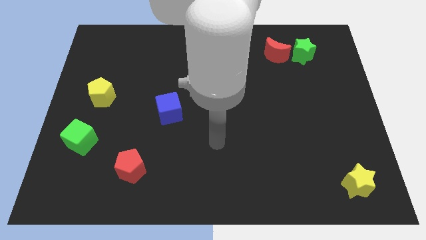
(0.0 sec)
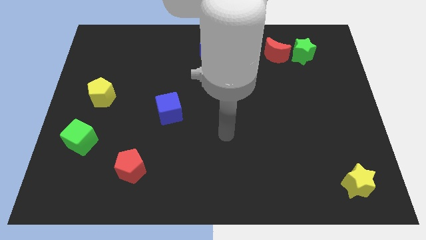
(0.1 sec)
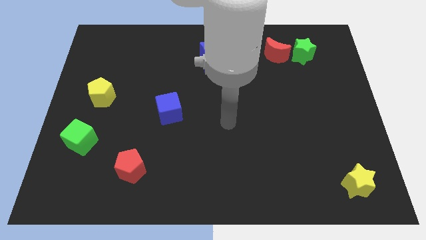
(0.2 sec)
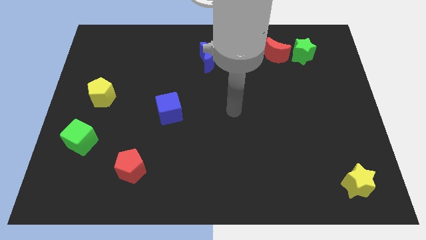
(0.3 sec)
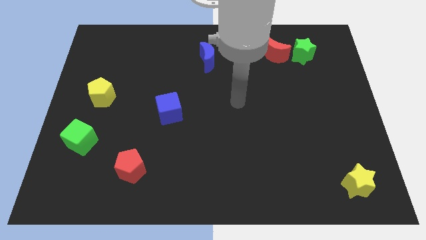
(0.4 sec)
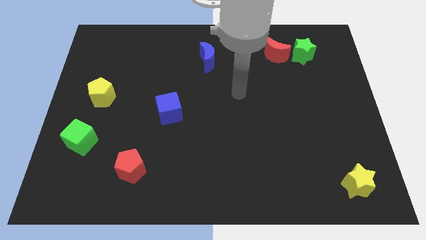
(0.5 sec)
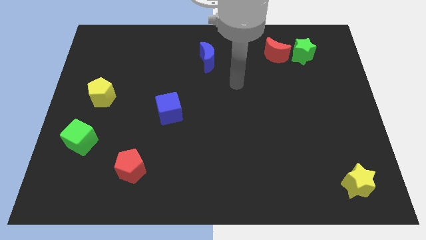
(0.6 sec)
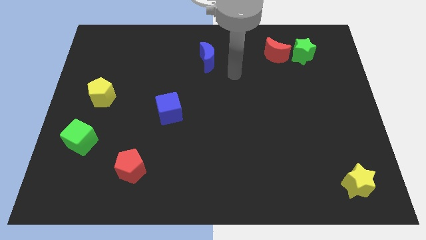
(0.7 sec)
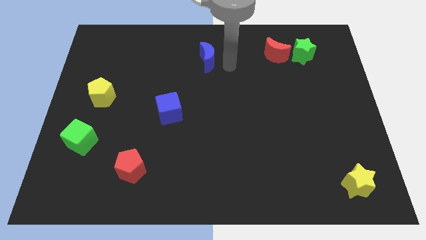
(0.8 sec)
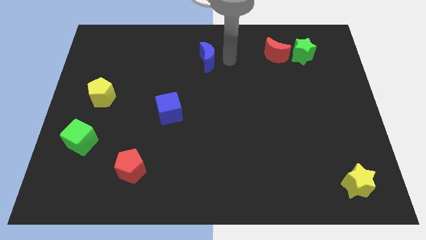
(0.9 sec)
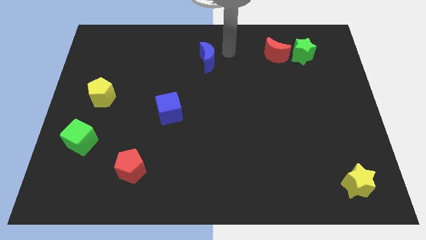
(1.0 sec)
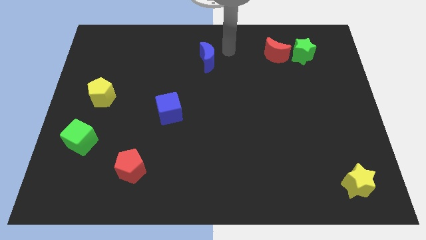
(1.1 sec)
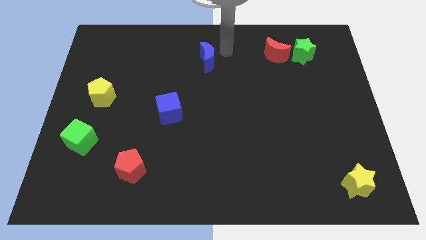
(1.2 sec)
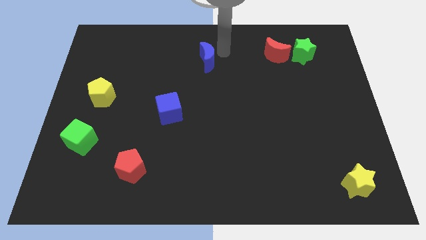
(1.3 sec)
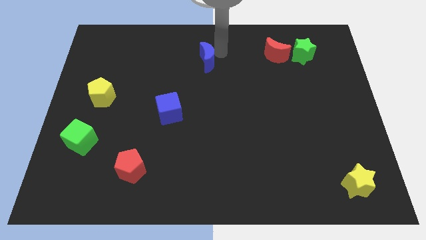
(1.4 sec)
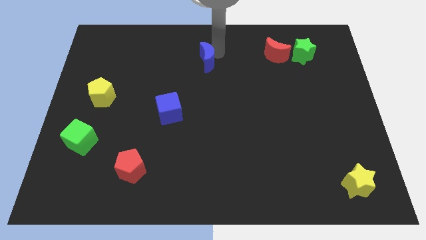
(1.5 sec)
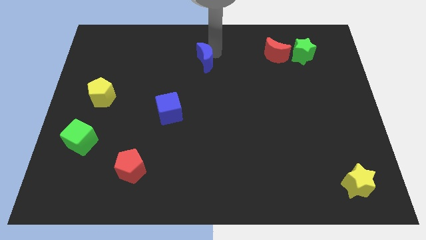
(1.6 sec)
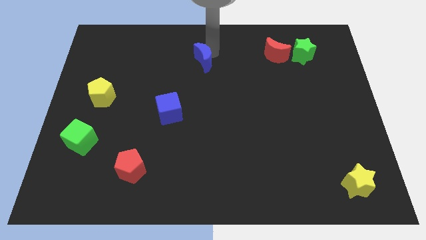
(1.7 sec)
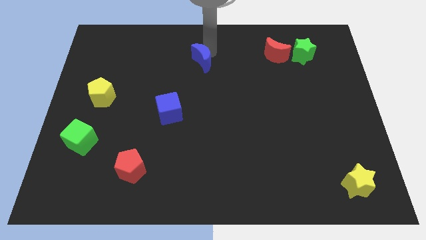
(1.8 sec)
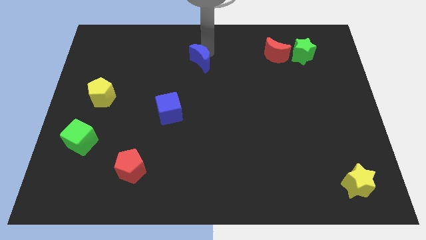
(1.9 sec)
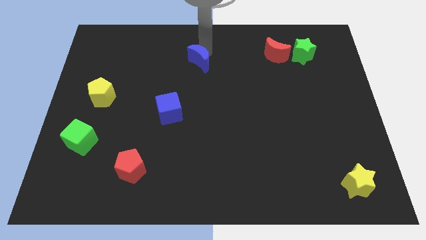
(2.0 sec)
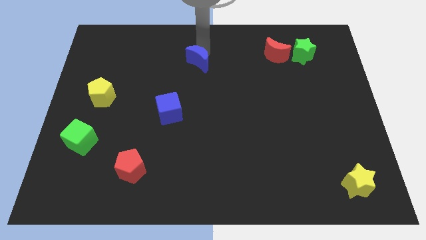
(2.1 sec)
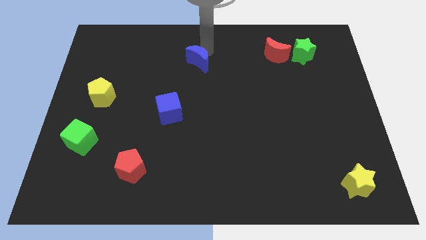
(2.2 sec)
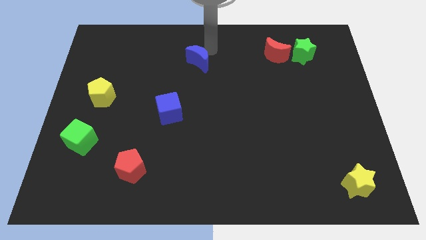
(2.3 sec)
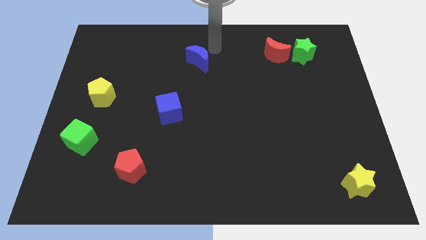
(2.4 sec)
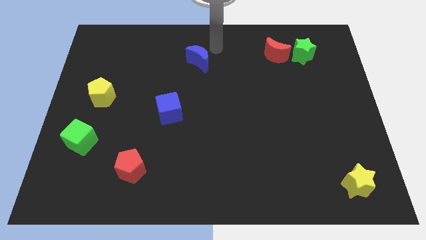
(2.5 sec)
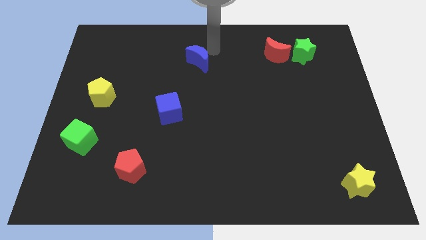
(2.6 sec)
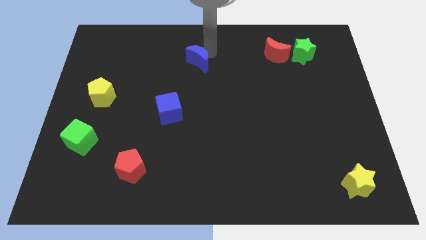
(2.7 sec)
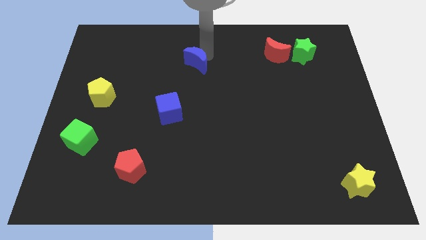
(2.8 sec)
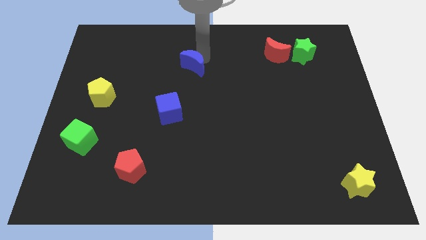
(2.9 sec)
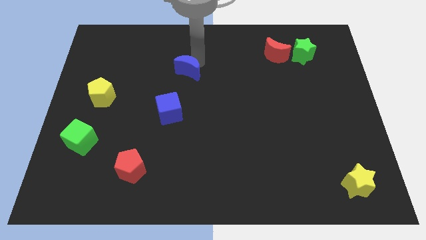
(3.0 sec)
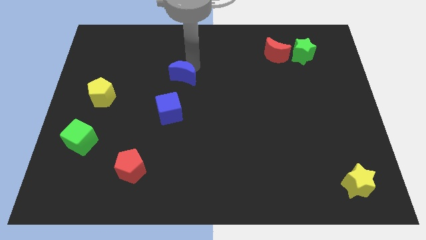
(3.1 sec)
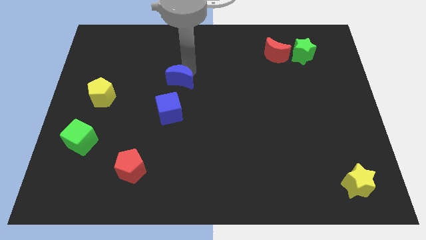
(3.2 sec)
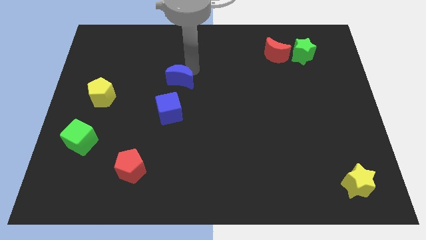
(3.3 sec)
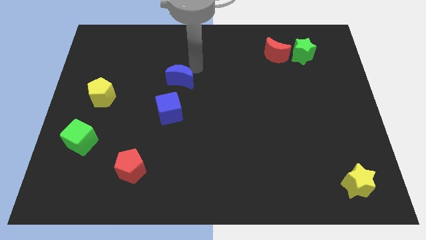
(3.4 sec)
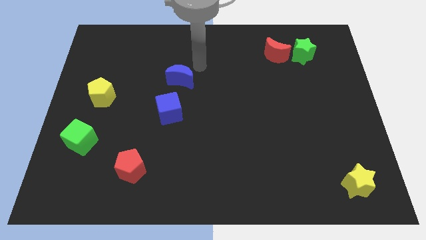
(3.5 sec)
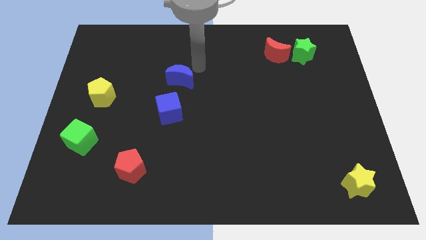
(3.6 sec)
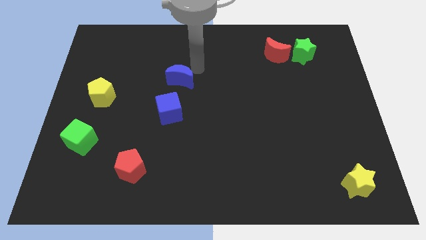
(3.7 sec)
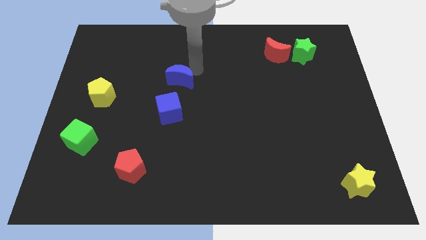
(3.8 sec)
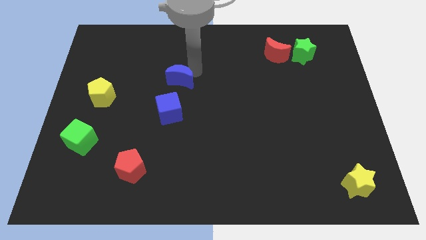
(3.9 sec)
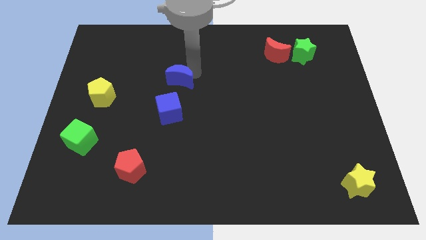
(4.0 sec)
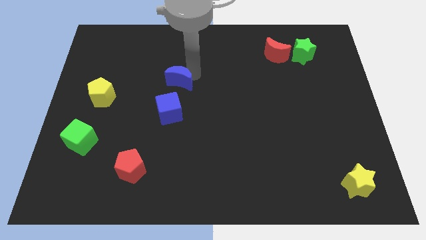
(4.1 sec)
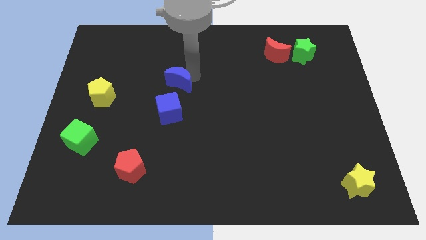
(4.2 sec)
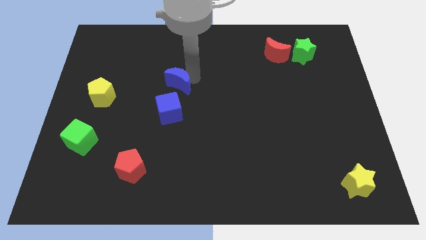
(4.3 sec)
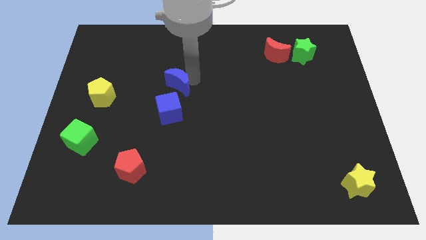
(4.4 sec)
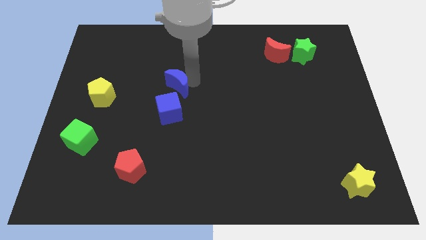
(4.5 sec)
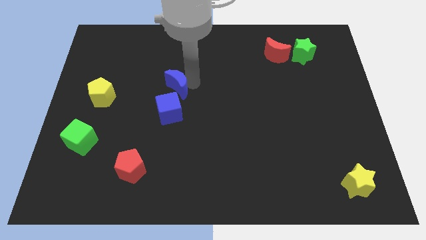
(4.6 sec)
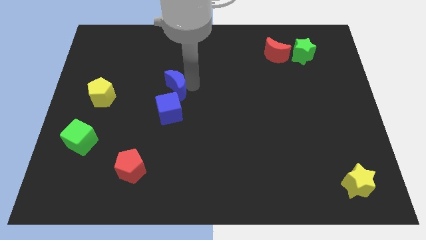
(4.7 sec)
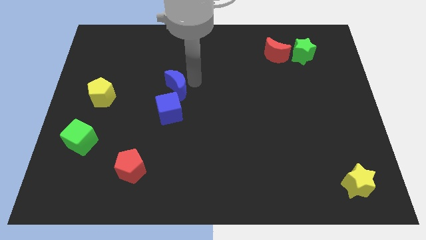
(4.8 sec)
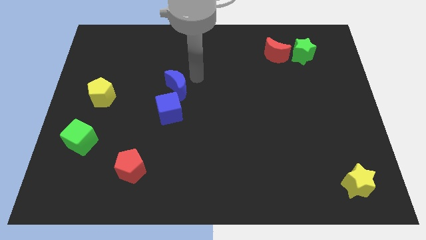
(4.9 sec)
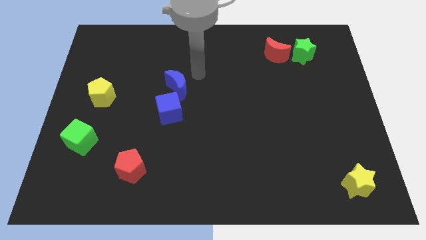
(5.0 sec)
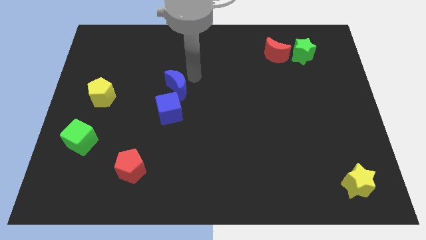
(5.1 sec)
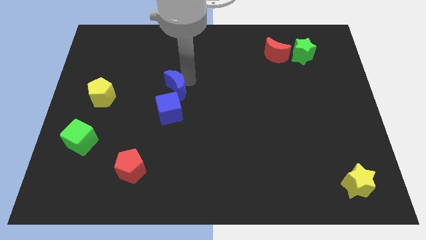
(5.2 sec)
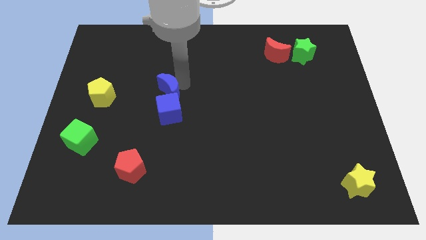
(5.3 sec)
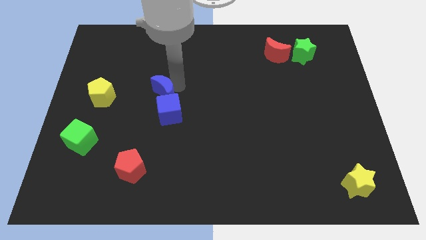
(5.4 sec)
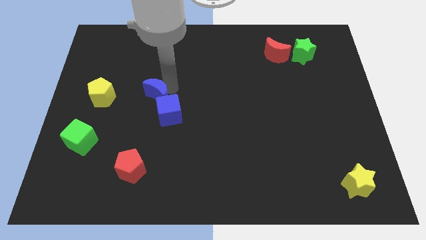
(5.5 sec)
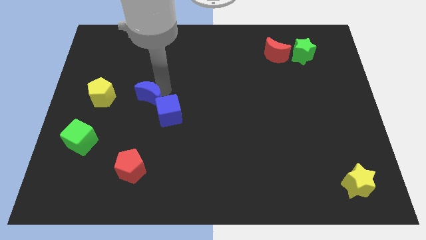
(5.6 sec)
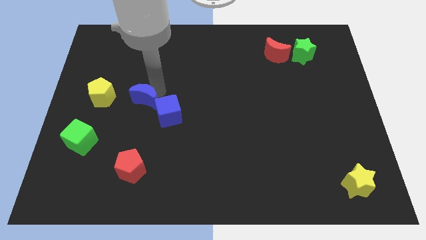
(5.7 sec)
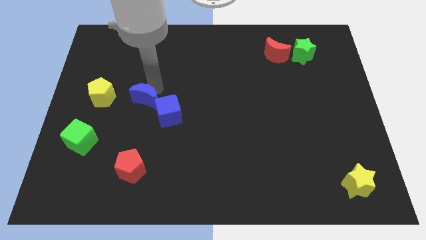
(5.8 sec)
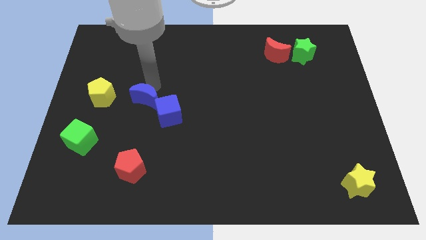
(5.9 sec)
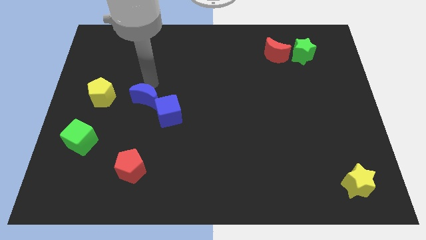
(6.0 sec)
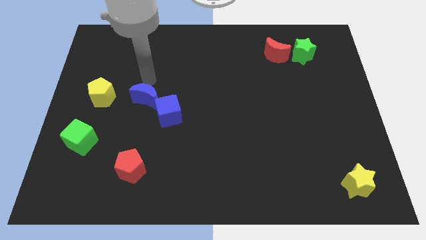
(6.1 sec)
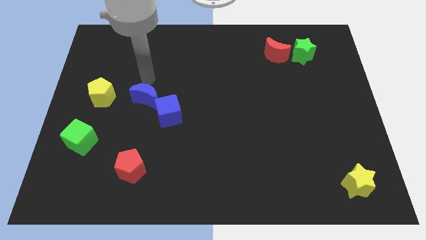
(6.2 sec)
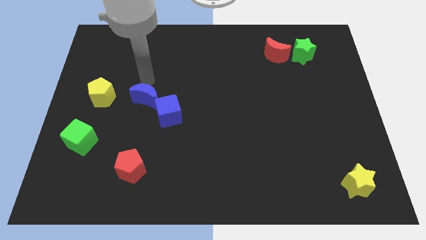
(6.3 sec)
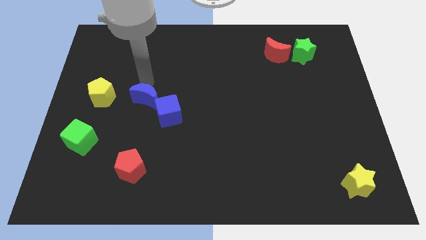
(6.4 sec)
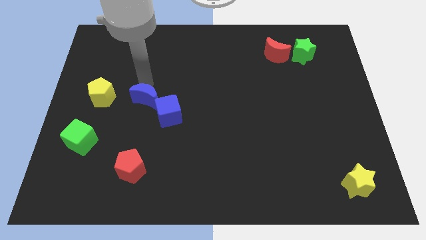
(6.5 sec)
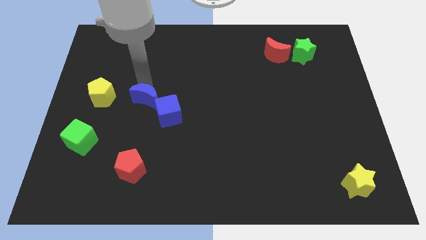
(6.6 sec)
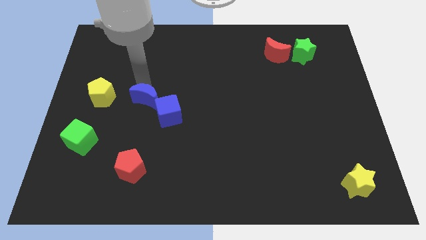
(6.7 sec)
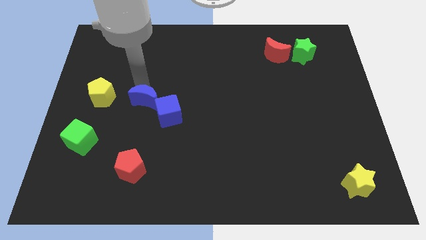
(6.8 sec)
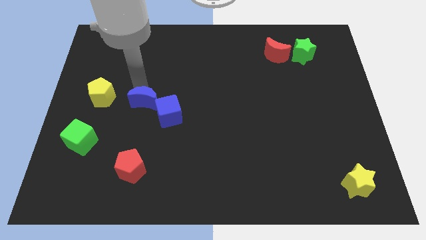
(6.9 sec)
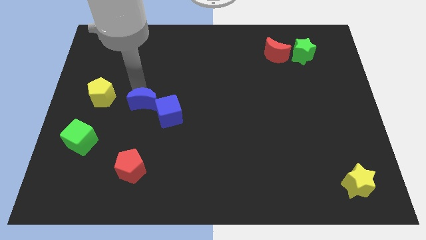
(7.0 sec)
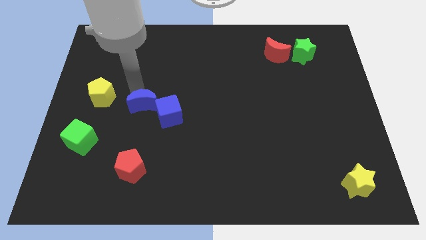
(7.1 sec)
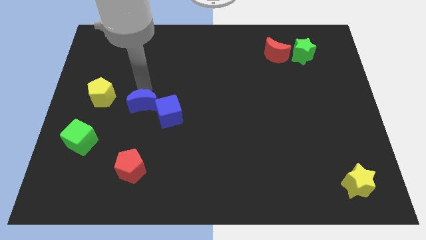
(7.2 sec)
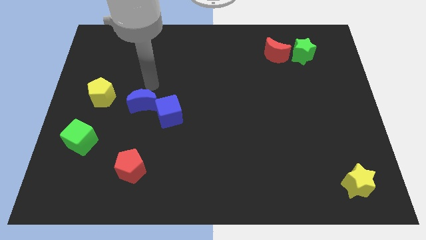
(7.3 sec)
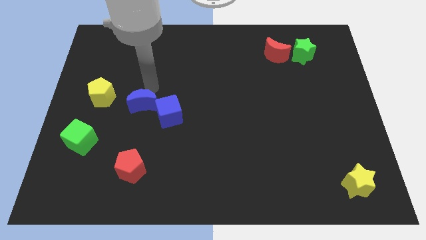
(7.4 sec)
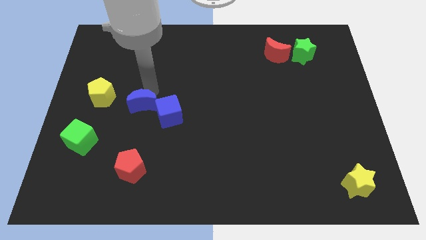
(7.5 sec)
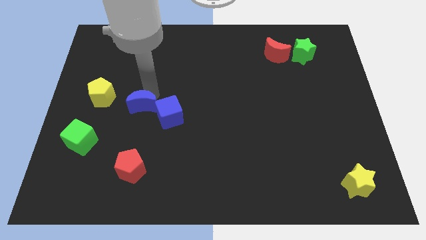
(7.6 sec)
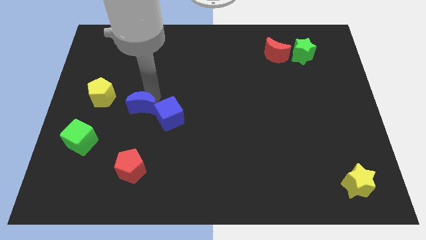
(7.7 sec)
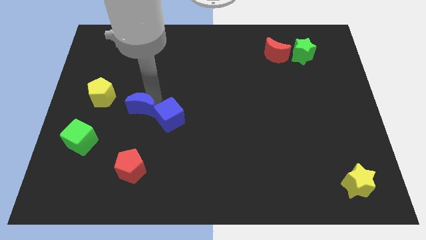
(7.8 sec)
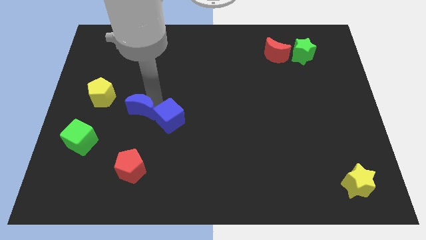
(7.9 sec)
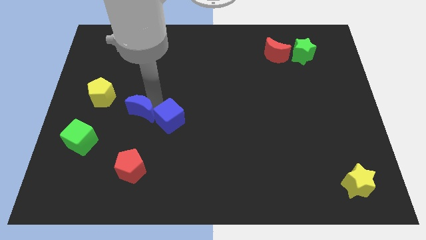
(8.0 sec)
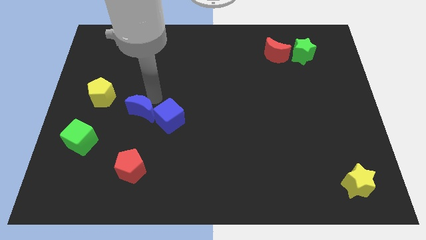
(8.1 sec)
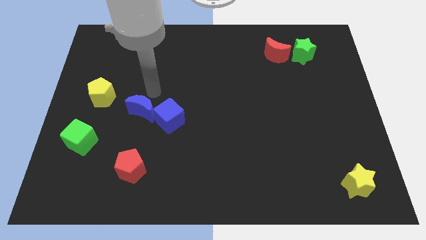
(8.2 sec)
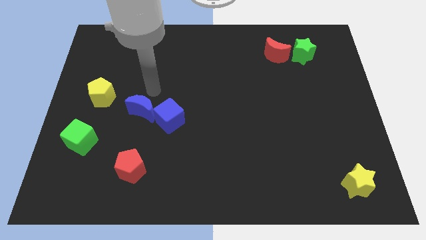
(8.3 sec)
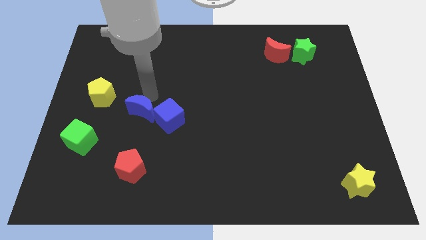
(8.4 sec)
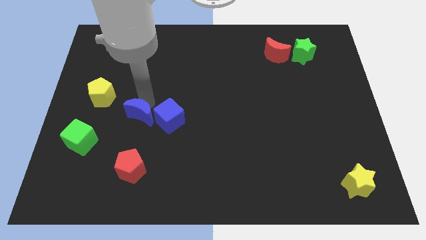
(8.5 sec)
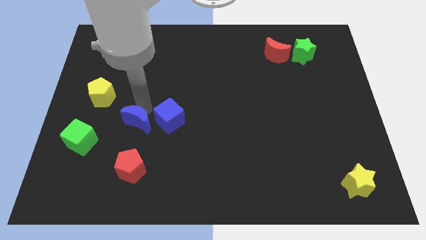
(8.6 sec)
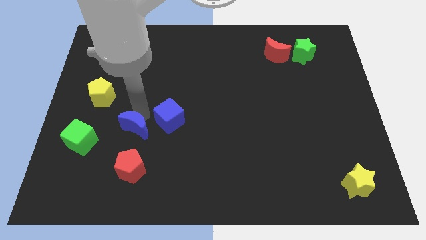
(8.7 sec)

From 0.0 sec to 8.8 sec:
slide the blue moon just right of the green cube
